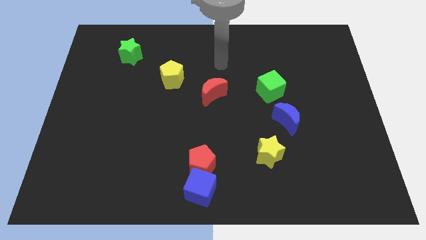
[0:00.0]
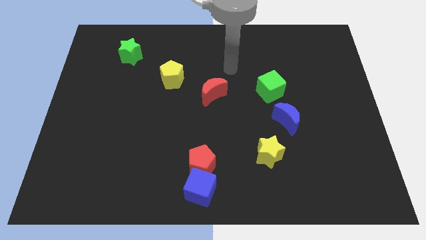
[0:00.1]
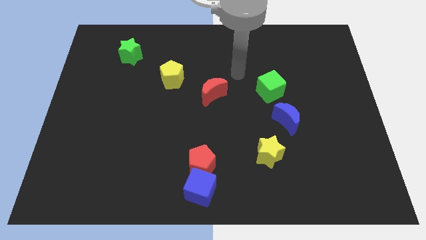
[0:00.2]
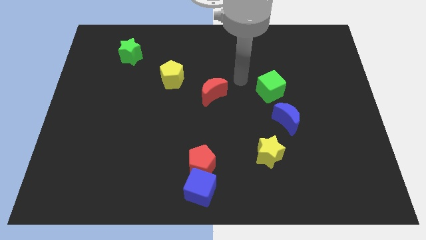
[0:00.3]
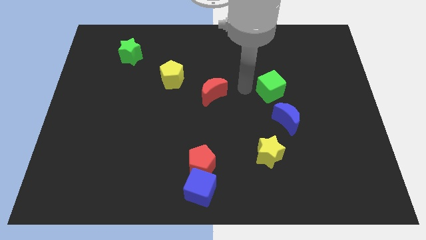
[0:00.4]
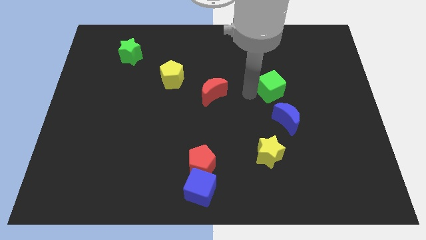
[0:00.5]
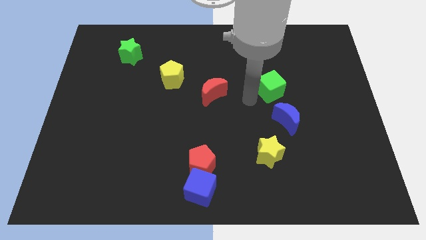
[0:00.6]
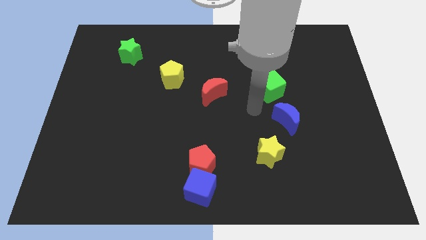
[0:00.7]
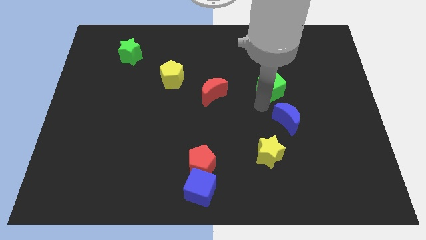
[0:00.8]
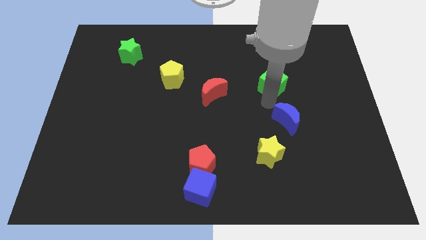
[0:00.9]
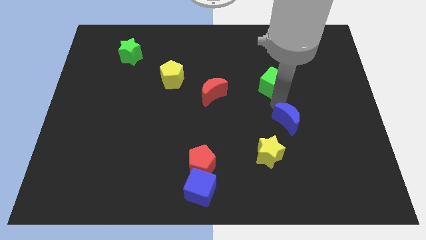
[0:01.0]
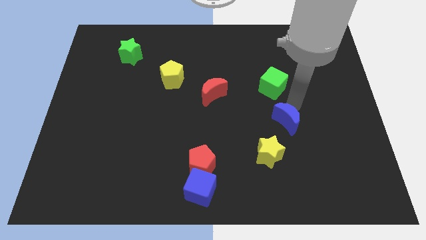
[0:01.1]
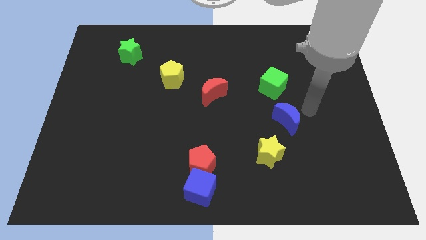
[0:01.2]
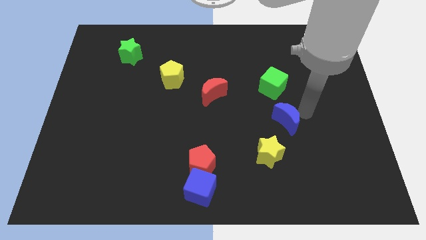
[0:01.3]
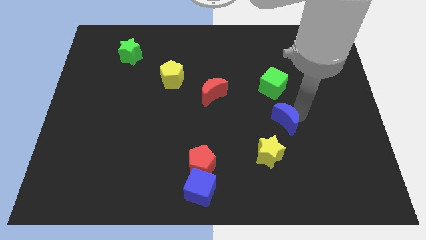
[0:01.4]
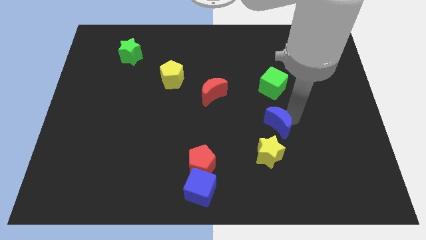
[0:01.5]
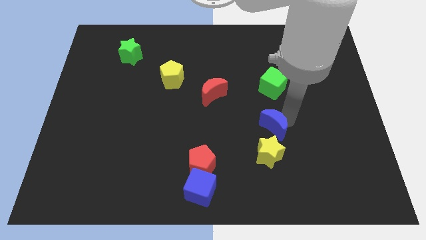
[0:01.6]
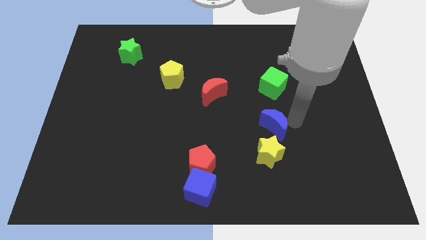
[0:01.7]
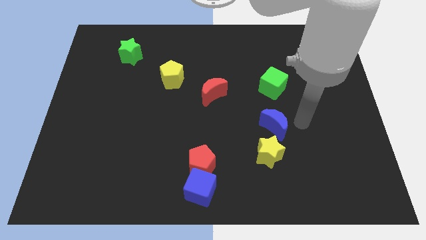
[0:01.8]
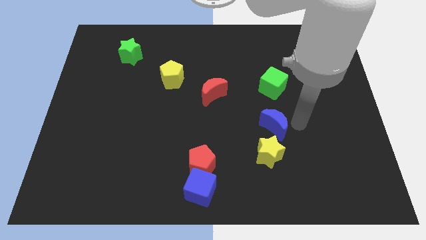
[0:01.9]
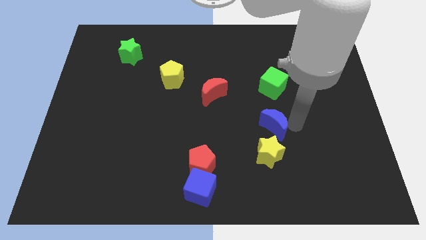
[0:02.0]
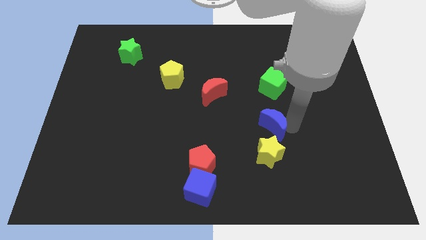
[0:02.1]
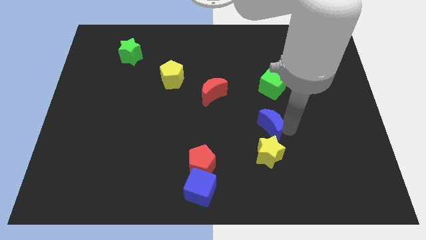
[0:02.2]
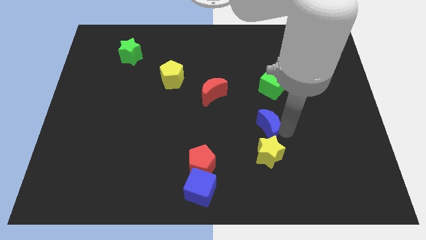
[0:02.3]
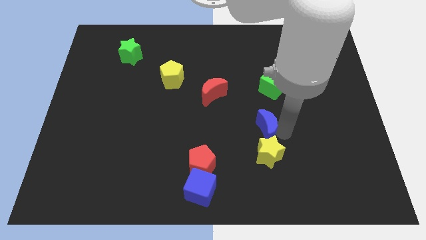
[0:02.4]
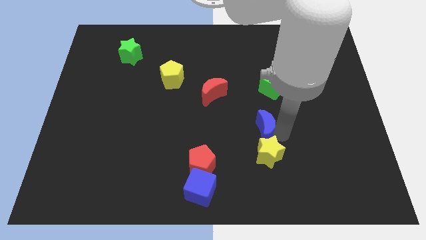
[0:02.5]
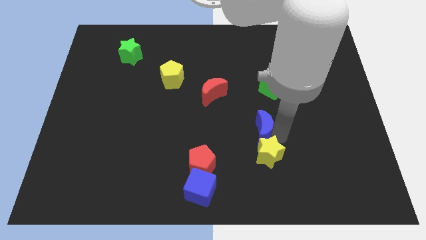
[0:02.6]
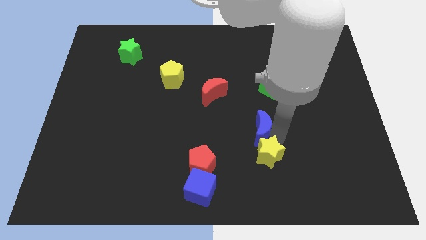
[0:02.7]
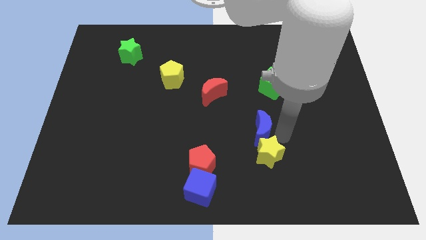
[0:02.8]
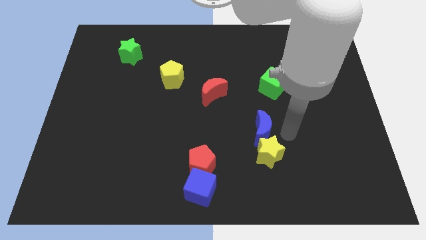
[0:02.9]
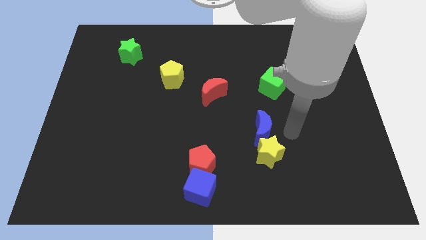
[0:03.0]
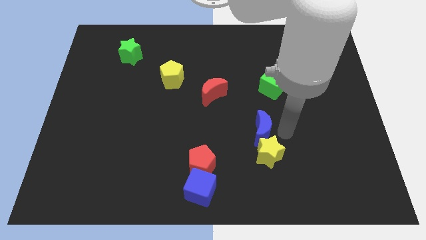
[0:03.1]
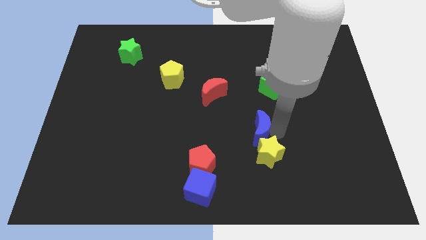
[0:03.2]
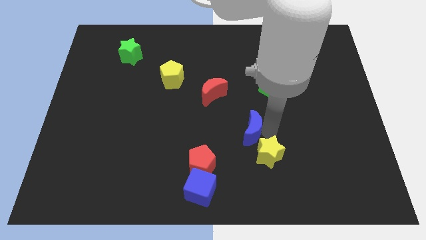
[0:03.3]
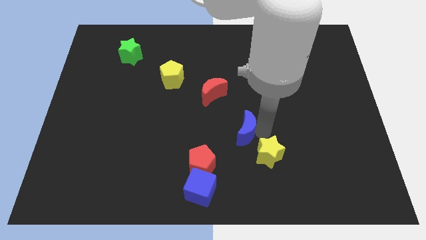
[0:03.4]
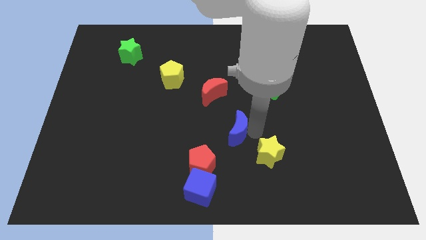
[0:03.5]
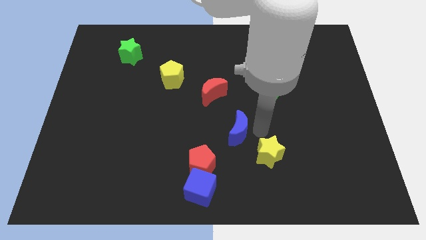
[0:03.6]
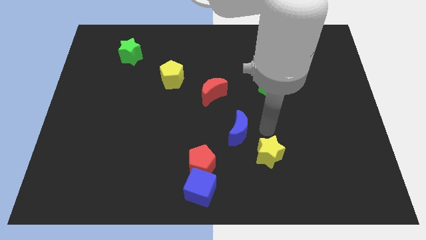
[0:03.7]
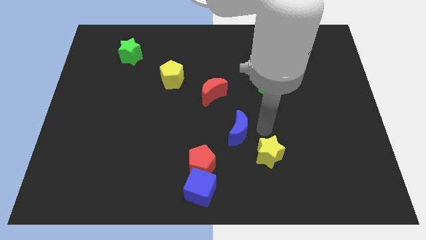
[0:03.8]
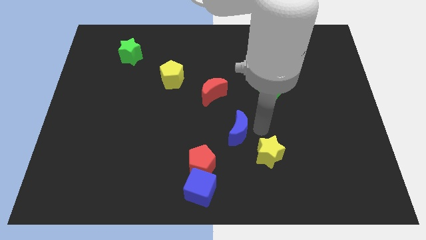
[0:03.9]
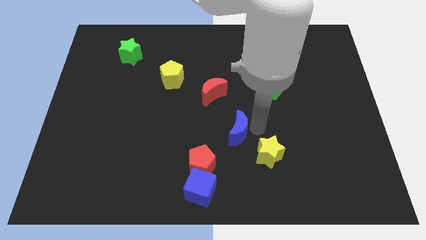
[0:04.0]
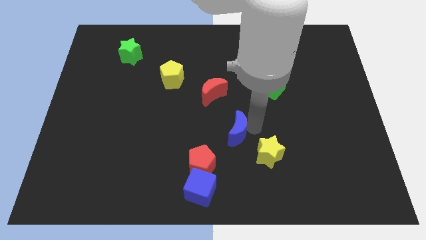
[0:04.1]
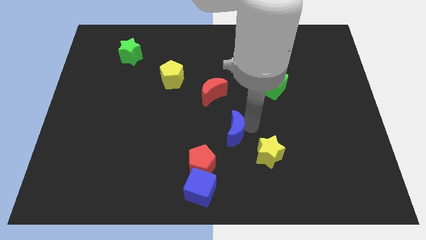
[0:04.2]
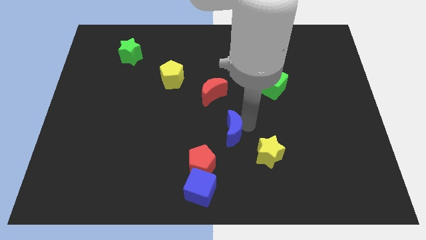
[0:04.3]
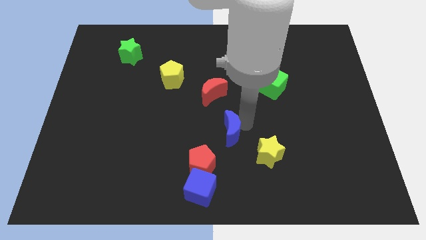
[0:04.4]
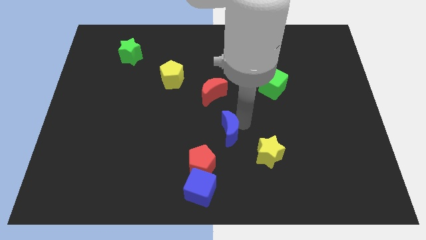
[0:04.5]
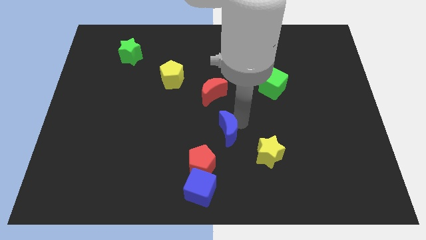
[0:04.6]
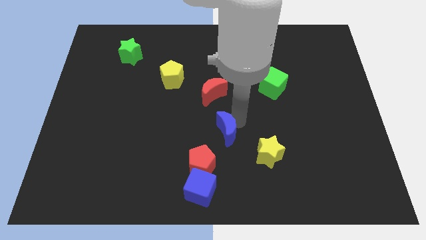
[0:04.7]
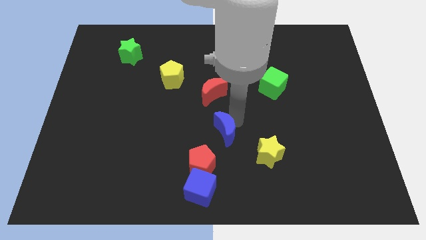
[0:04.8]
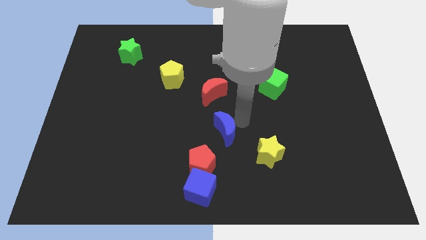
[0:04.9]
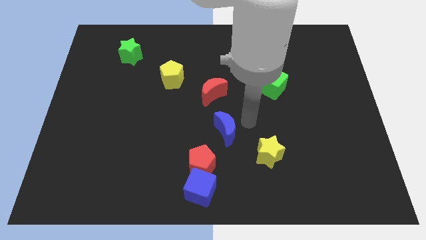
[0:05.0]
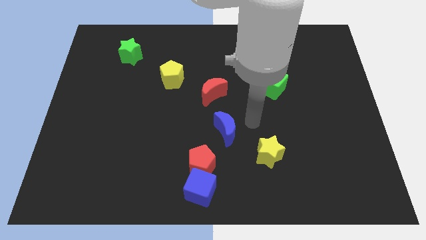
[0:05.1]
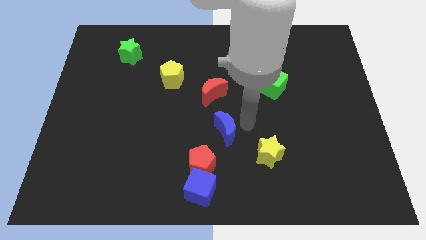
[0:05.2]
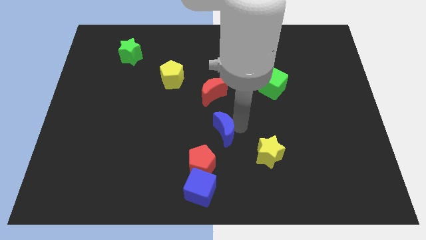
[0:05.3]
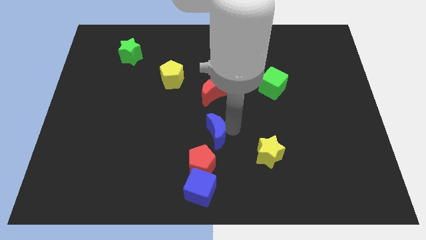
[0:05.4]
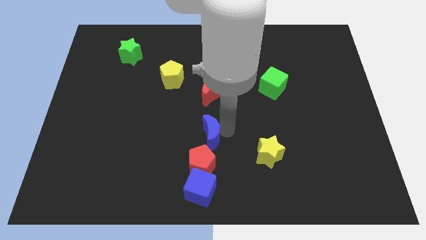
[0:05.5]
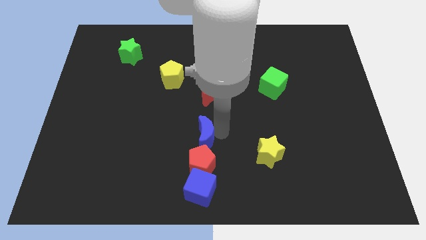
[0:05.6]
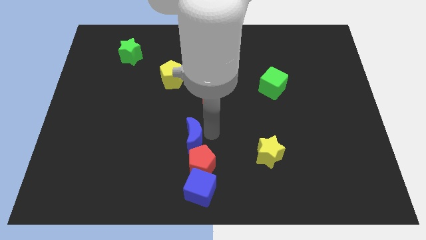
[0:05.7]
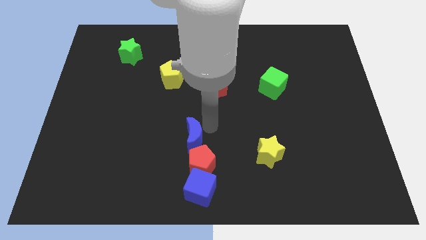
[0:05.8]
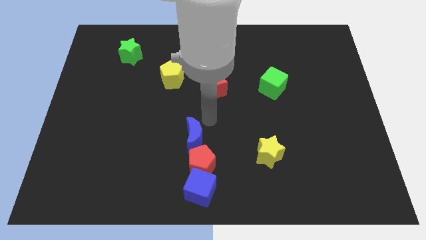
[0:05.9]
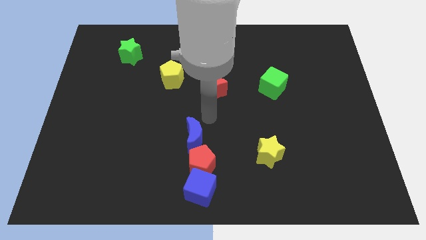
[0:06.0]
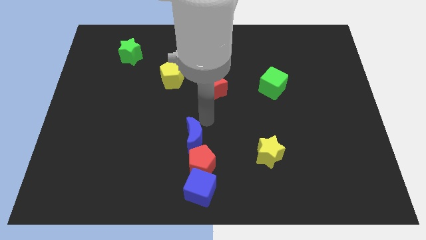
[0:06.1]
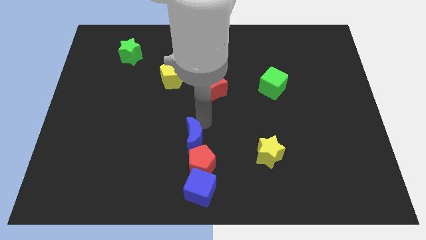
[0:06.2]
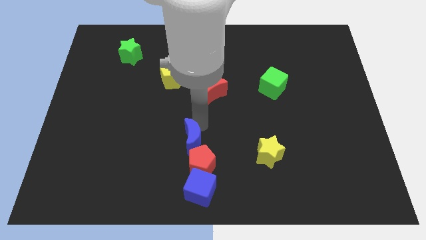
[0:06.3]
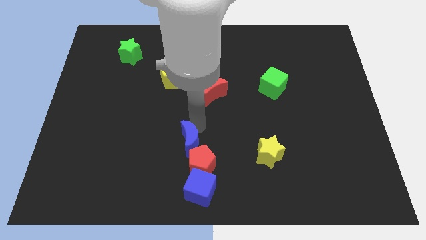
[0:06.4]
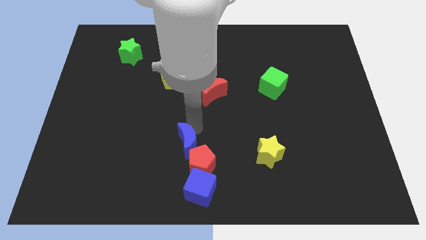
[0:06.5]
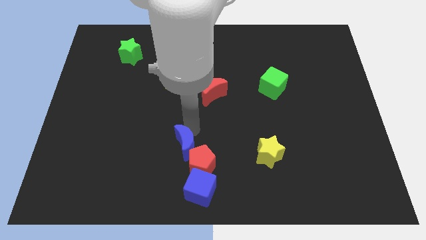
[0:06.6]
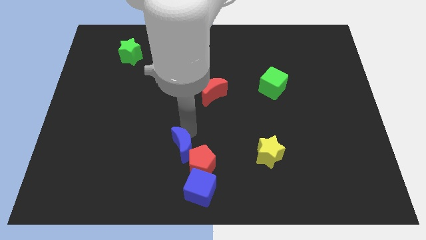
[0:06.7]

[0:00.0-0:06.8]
put the blue moon diagonally up and to the left of the blue cube
